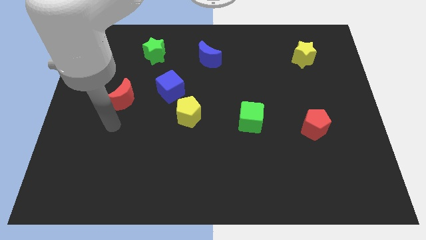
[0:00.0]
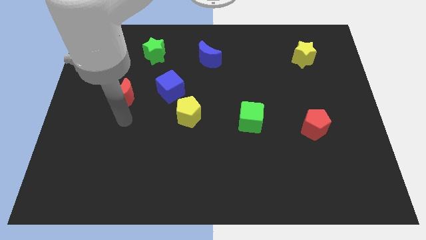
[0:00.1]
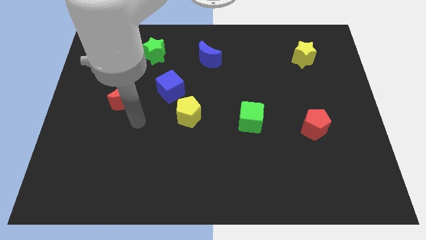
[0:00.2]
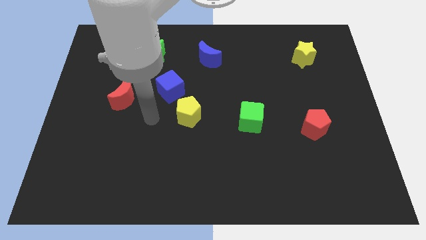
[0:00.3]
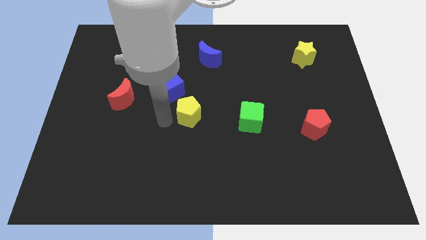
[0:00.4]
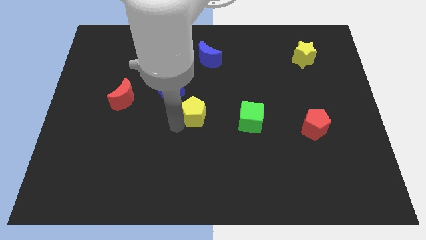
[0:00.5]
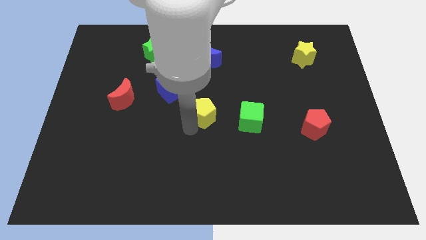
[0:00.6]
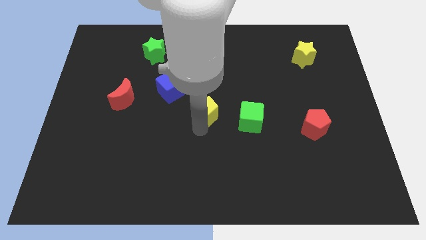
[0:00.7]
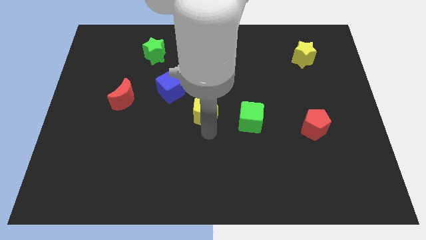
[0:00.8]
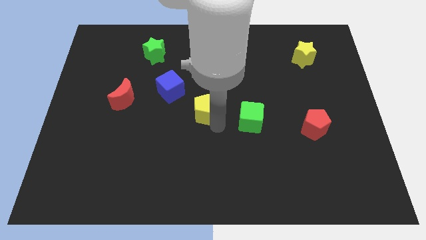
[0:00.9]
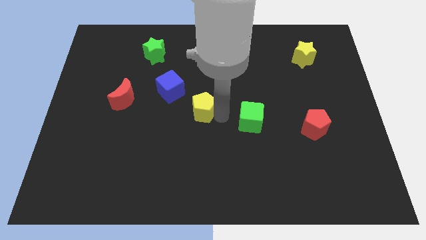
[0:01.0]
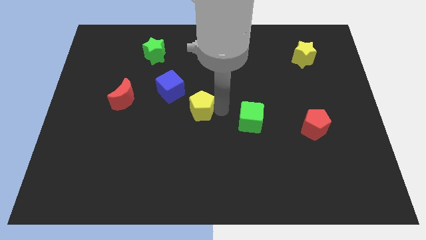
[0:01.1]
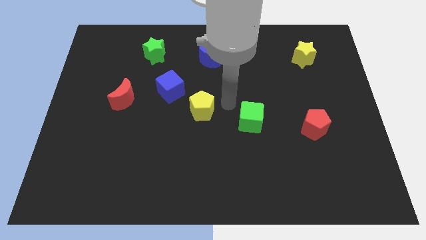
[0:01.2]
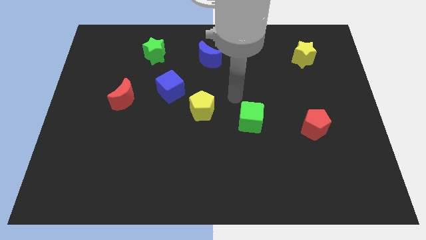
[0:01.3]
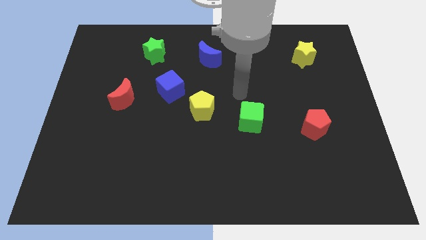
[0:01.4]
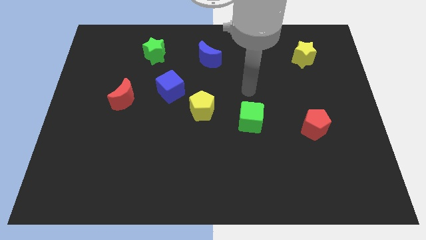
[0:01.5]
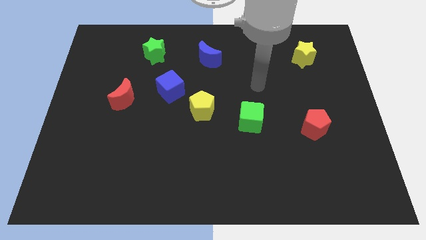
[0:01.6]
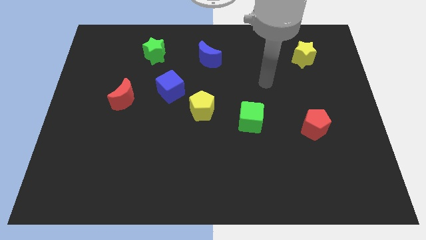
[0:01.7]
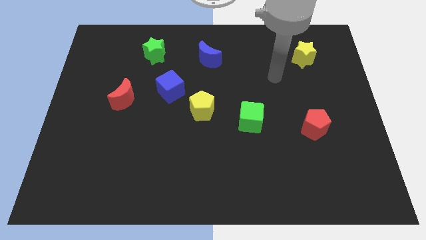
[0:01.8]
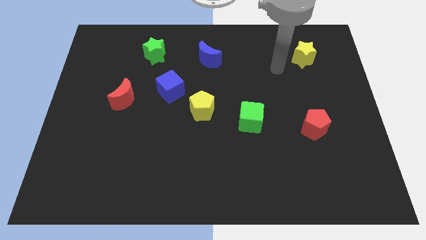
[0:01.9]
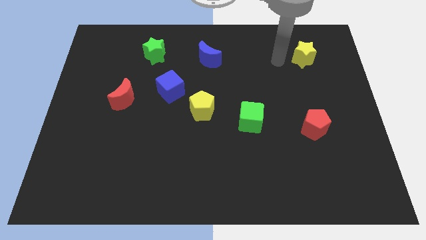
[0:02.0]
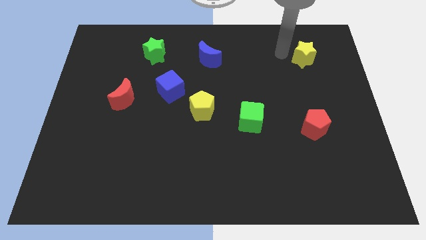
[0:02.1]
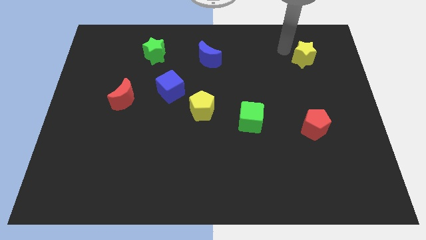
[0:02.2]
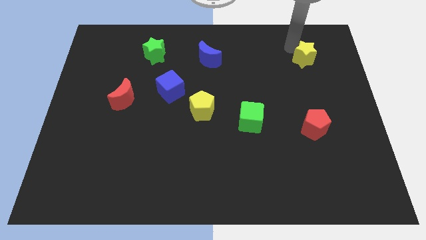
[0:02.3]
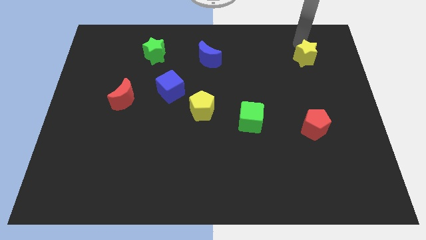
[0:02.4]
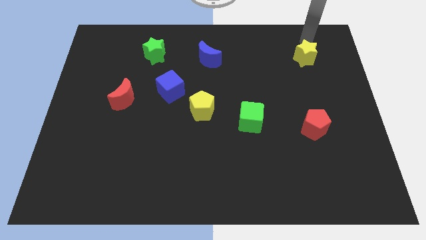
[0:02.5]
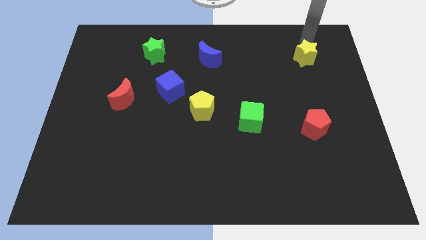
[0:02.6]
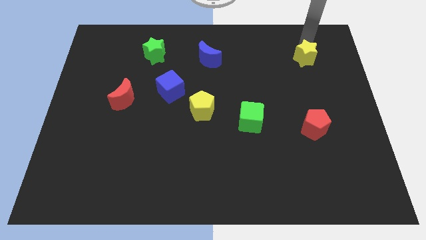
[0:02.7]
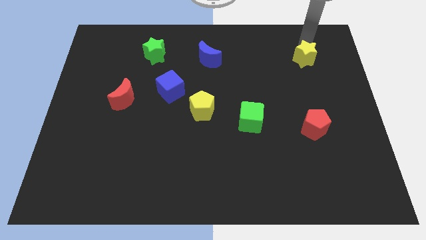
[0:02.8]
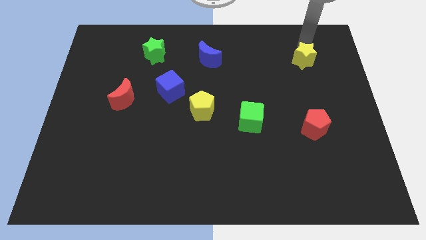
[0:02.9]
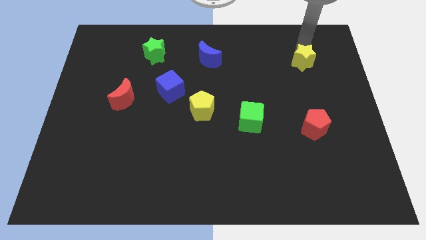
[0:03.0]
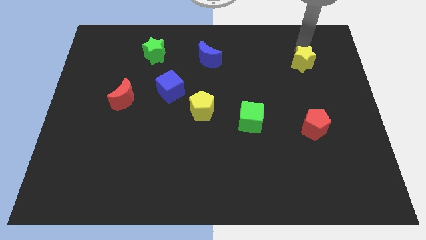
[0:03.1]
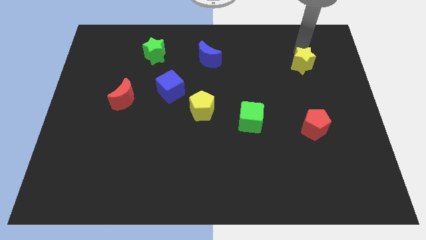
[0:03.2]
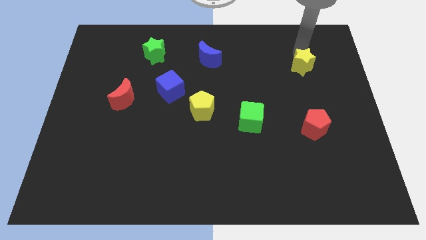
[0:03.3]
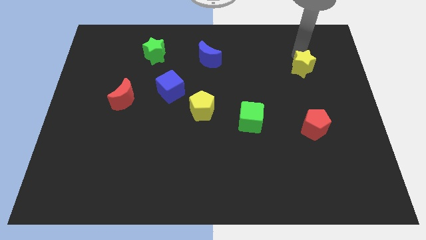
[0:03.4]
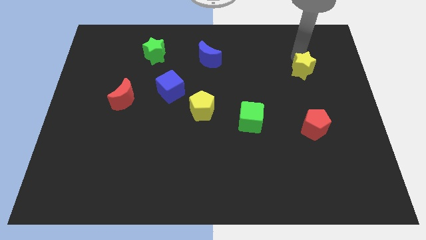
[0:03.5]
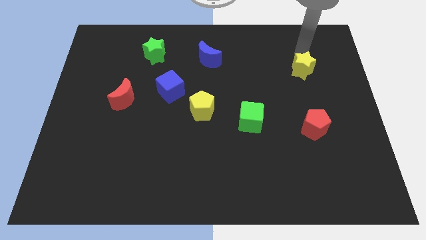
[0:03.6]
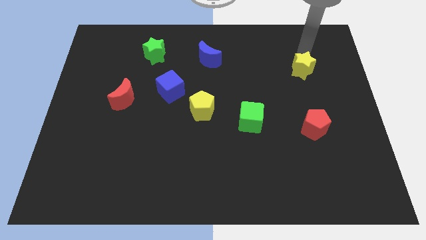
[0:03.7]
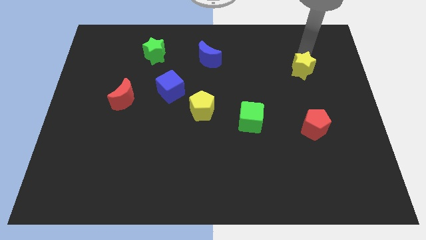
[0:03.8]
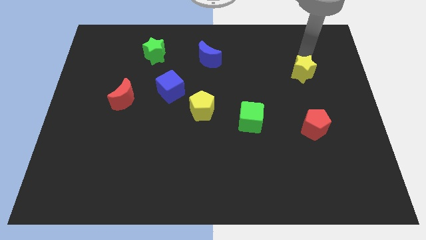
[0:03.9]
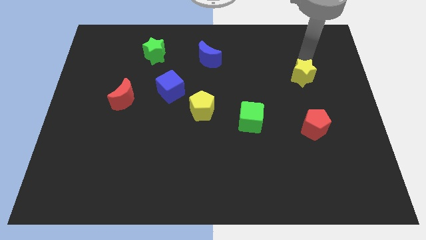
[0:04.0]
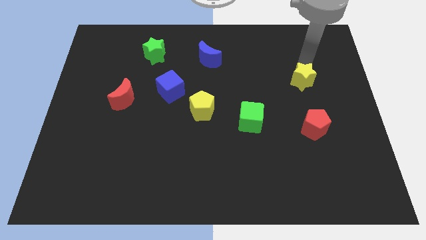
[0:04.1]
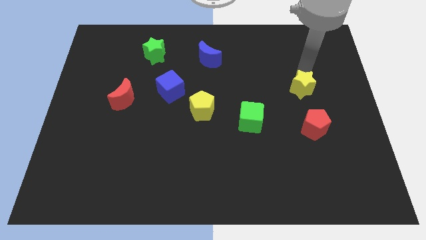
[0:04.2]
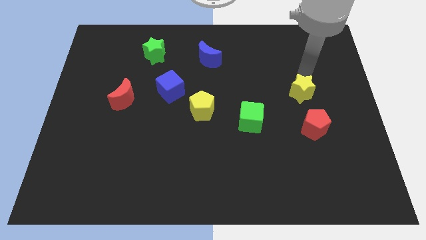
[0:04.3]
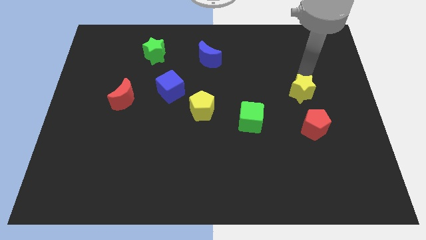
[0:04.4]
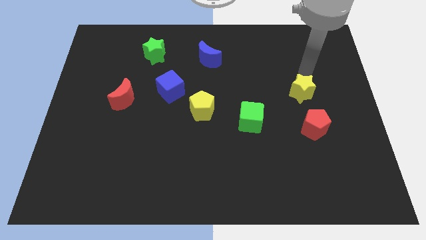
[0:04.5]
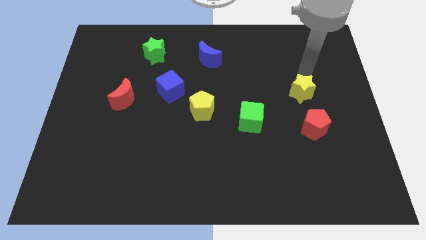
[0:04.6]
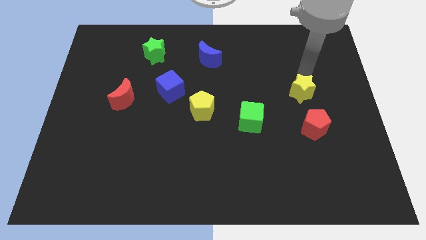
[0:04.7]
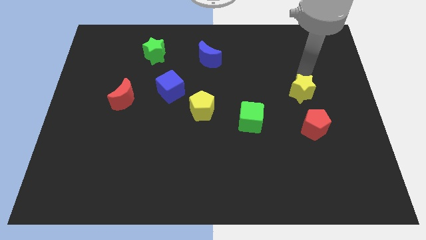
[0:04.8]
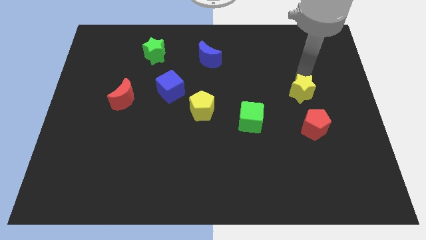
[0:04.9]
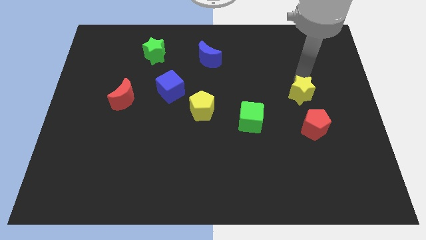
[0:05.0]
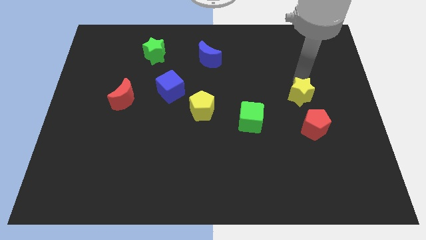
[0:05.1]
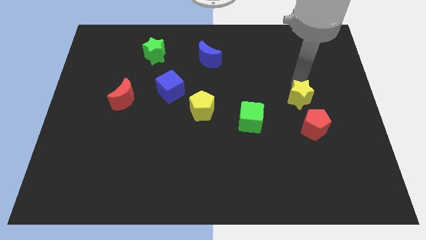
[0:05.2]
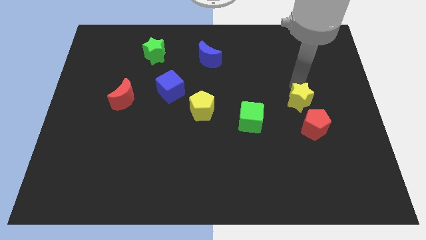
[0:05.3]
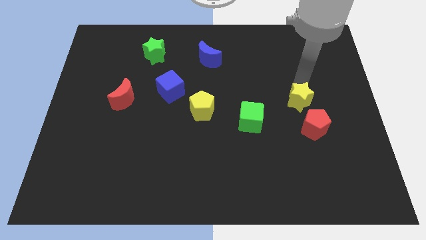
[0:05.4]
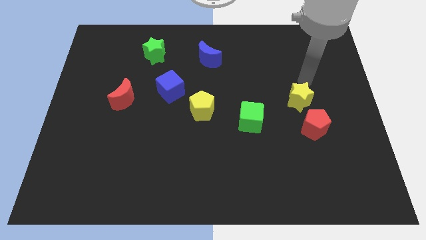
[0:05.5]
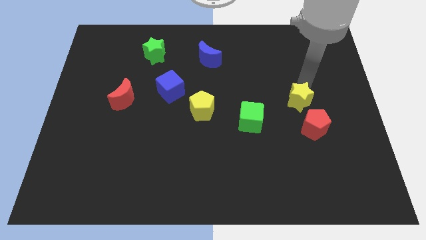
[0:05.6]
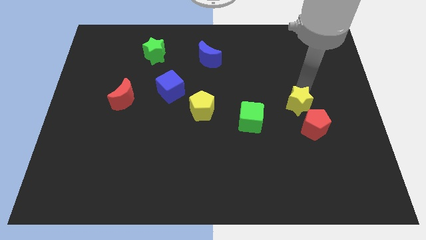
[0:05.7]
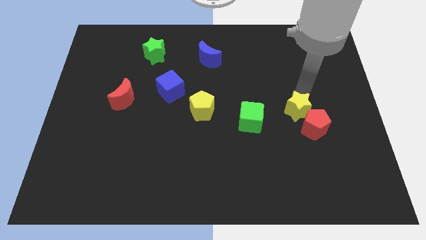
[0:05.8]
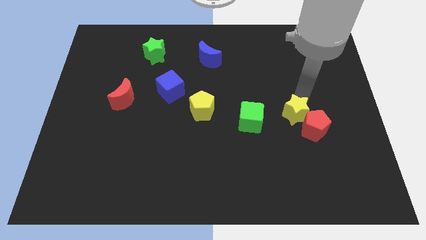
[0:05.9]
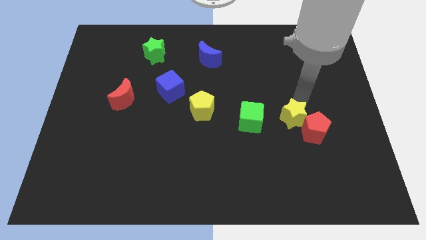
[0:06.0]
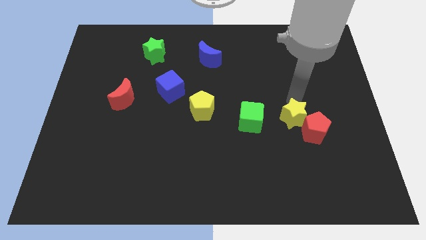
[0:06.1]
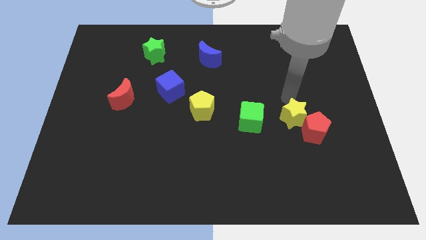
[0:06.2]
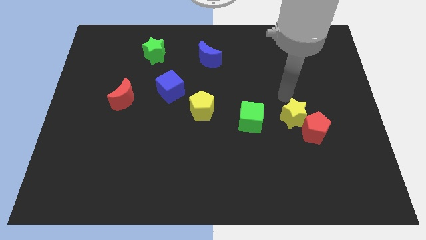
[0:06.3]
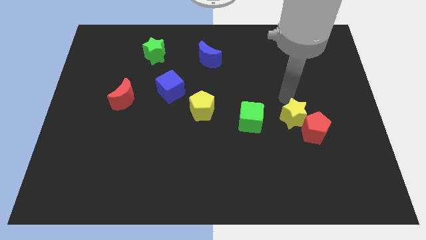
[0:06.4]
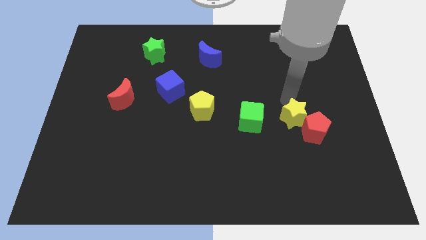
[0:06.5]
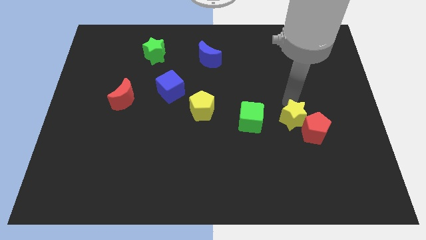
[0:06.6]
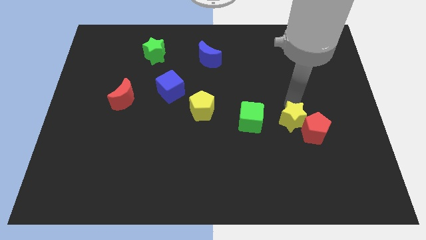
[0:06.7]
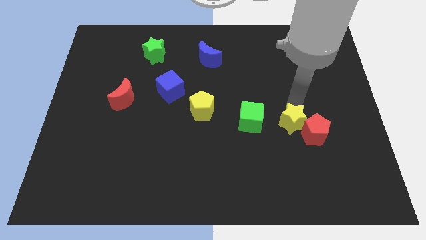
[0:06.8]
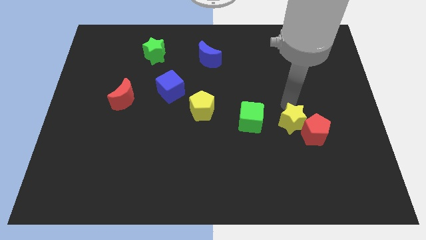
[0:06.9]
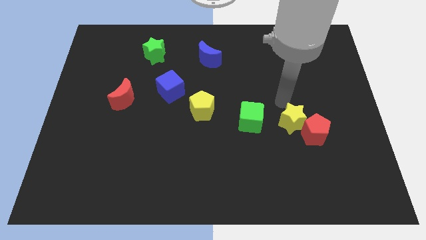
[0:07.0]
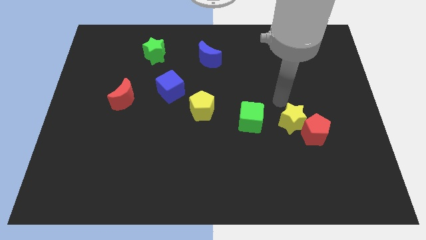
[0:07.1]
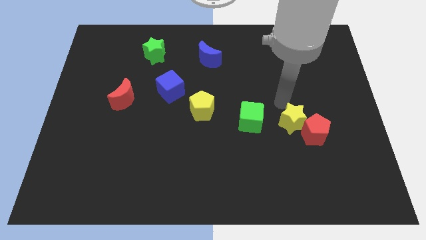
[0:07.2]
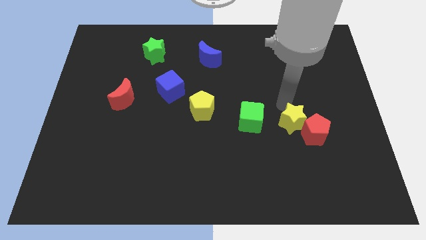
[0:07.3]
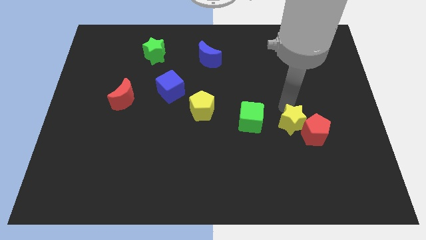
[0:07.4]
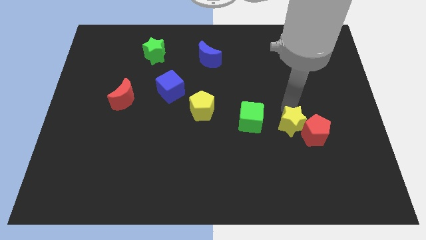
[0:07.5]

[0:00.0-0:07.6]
push the yellow star downwards

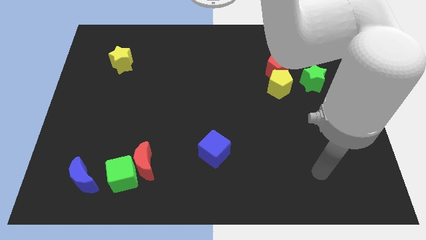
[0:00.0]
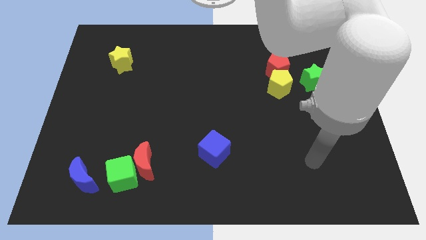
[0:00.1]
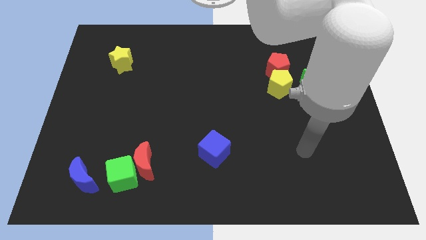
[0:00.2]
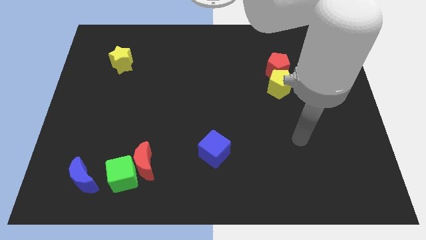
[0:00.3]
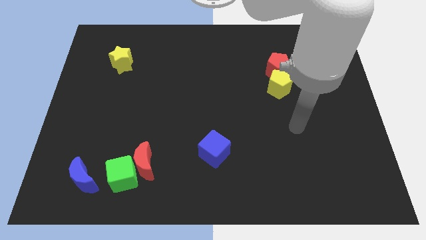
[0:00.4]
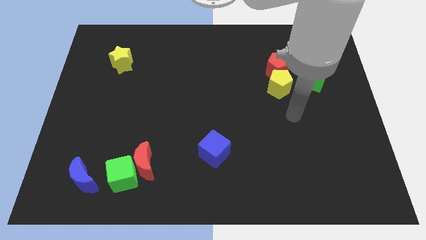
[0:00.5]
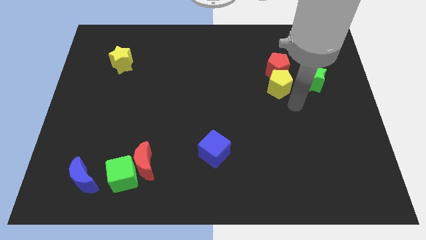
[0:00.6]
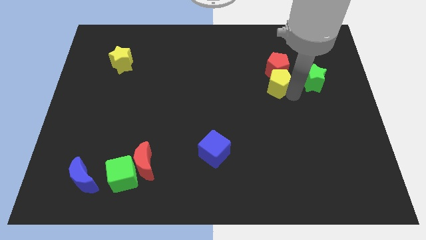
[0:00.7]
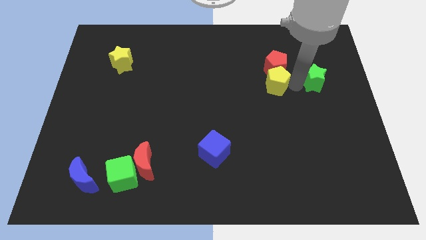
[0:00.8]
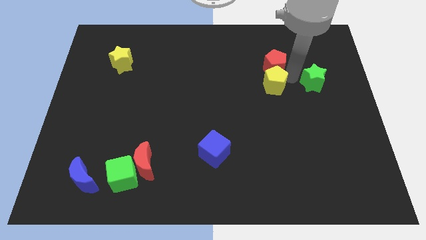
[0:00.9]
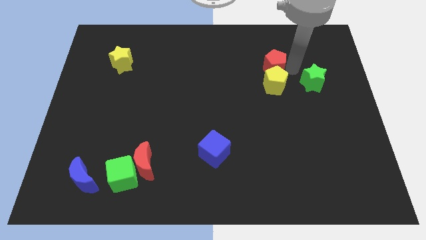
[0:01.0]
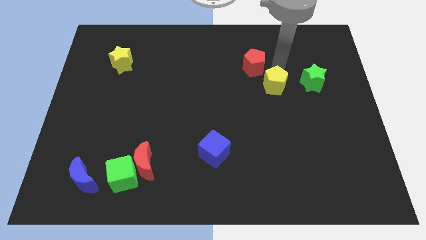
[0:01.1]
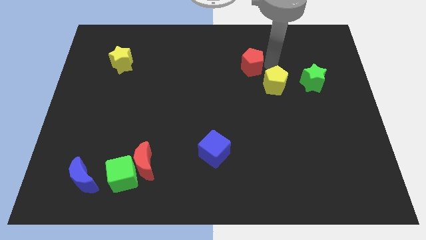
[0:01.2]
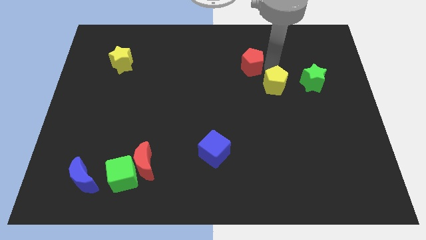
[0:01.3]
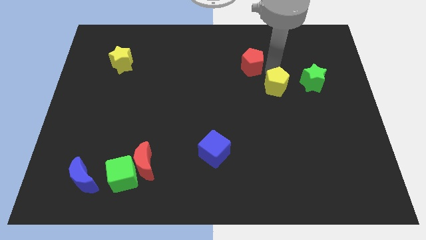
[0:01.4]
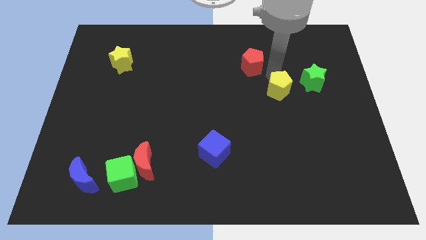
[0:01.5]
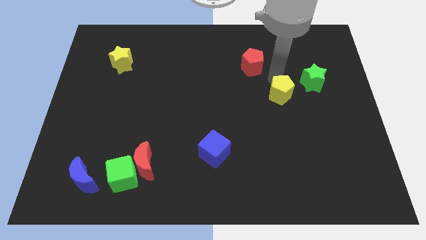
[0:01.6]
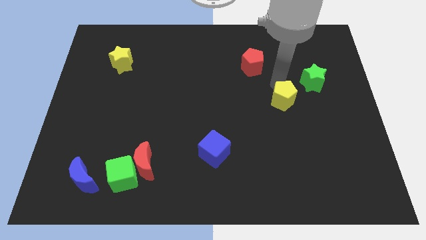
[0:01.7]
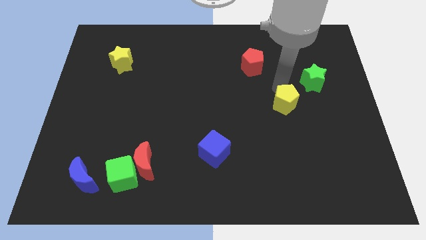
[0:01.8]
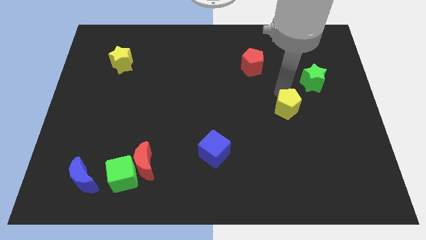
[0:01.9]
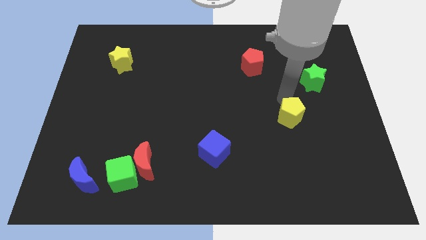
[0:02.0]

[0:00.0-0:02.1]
slightly push the yellow pentagon down
